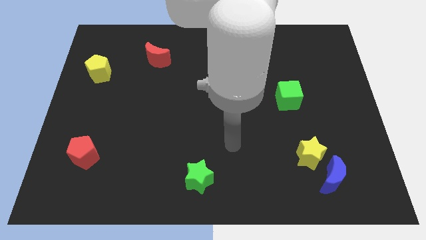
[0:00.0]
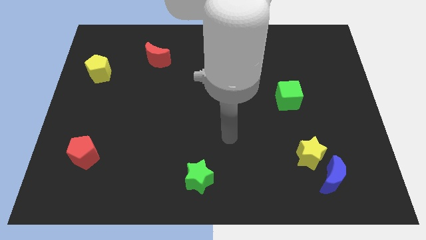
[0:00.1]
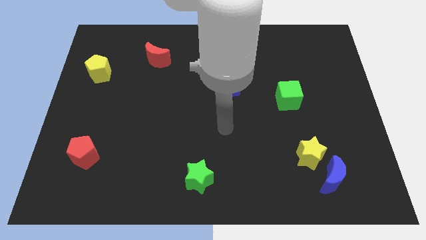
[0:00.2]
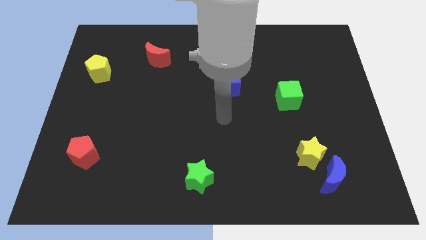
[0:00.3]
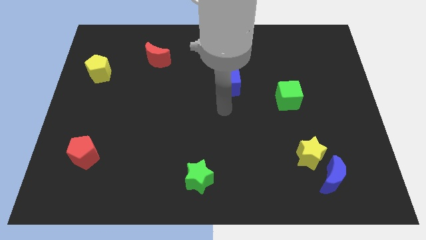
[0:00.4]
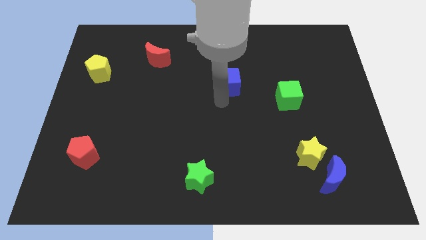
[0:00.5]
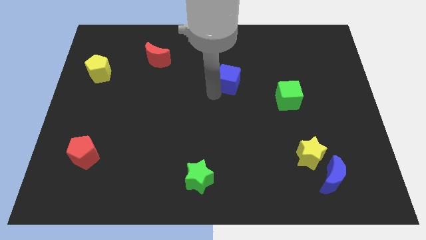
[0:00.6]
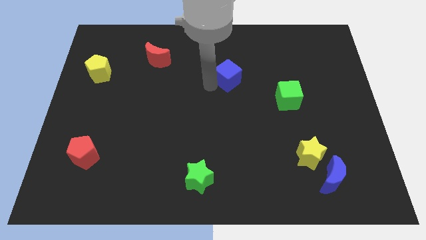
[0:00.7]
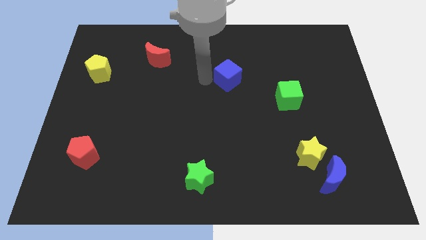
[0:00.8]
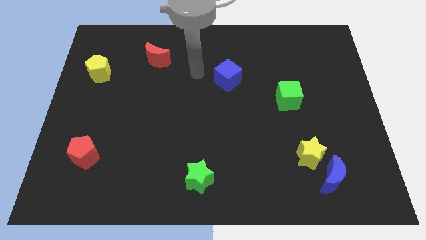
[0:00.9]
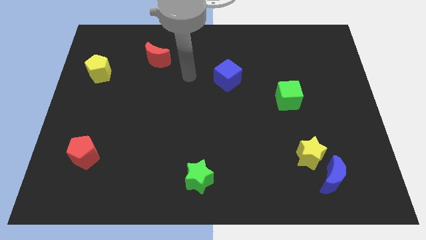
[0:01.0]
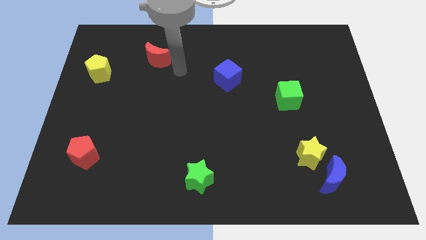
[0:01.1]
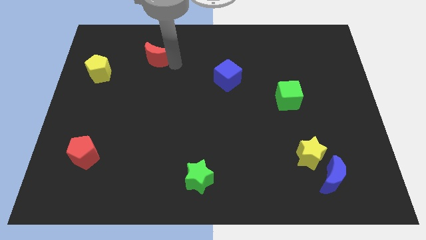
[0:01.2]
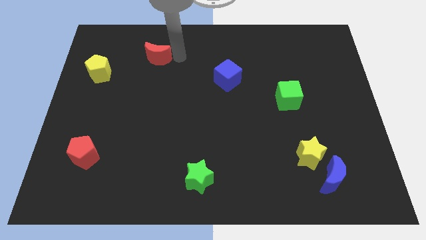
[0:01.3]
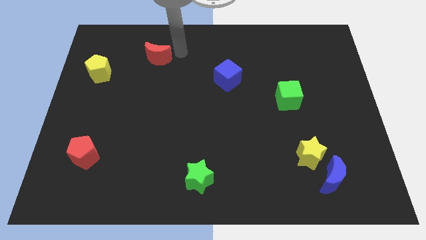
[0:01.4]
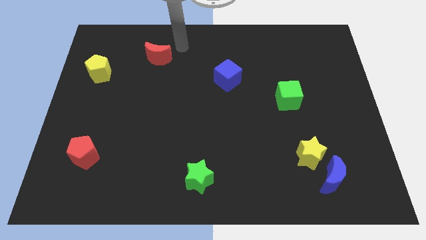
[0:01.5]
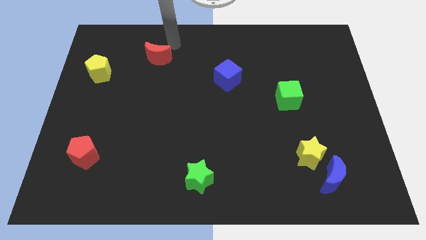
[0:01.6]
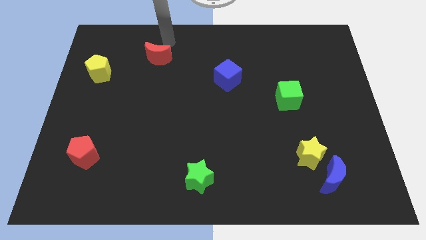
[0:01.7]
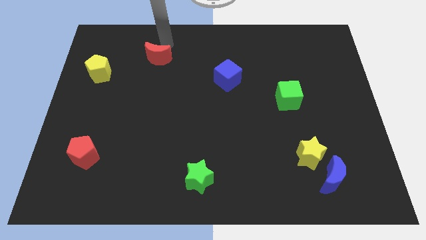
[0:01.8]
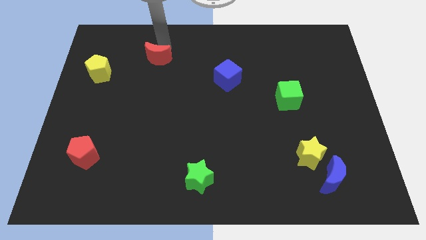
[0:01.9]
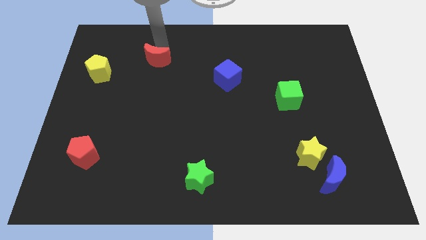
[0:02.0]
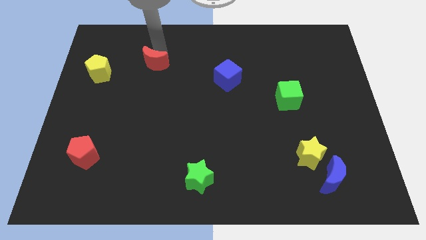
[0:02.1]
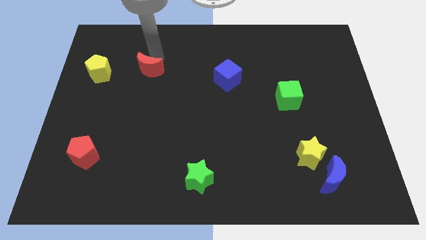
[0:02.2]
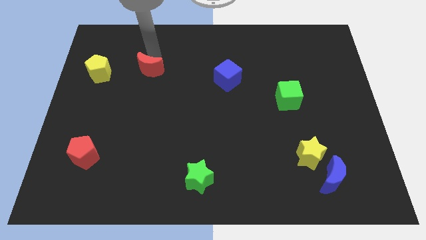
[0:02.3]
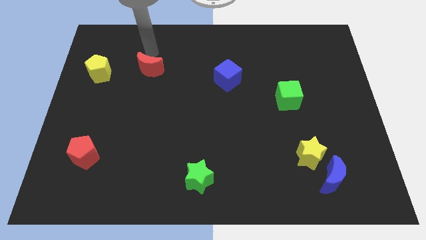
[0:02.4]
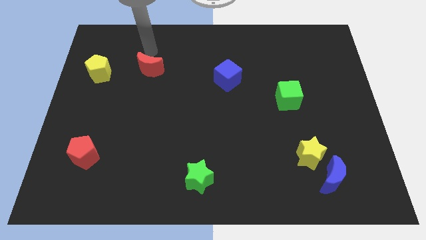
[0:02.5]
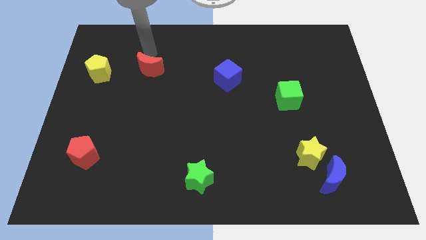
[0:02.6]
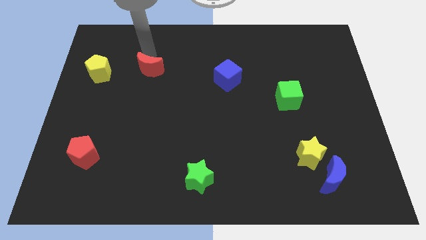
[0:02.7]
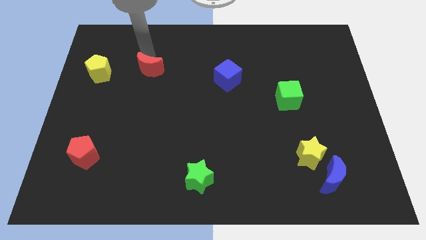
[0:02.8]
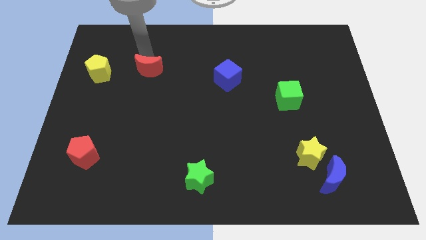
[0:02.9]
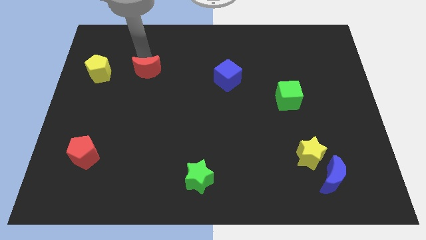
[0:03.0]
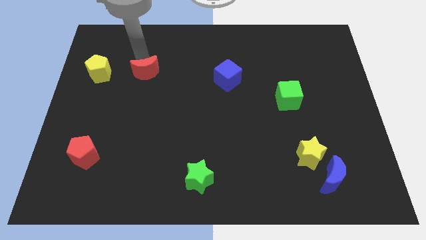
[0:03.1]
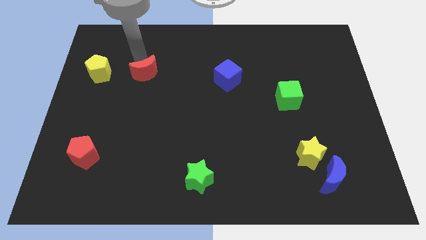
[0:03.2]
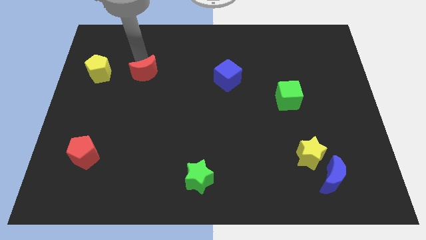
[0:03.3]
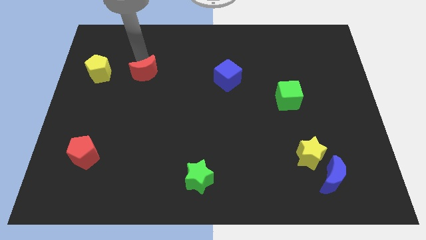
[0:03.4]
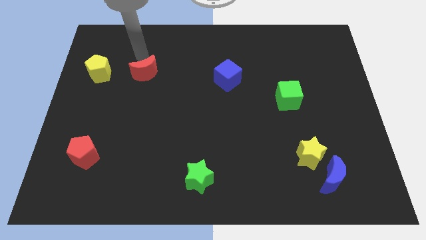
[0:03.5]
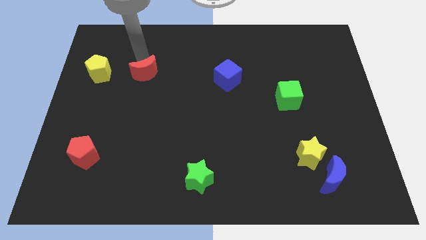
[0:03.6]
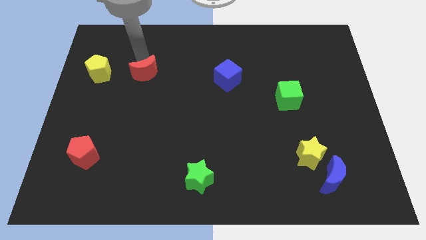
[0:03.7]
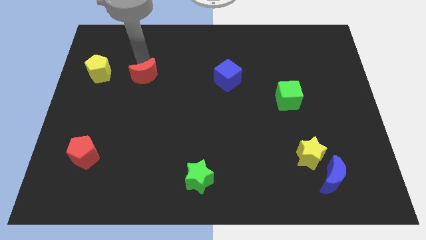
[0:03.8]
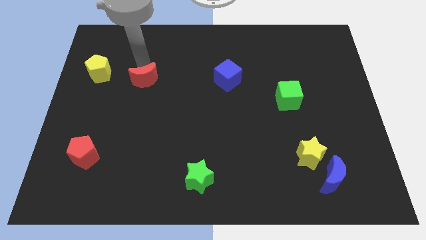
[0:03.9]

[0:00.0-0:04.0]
push the red moon down a little

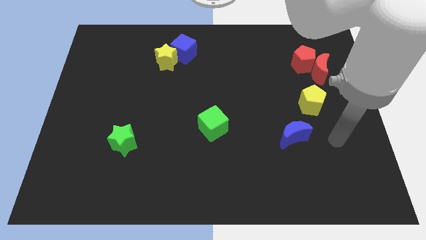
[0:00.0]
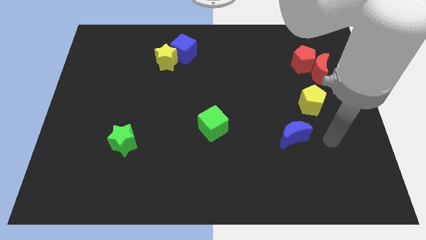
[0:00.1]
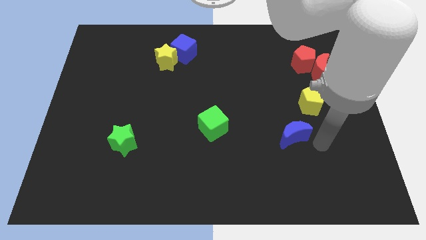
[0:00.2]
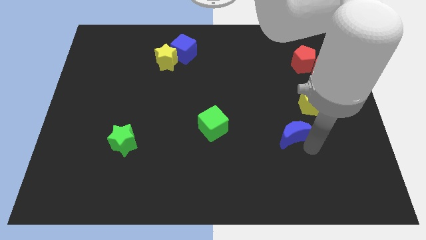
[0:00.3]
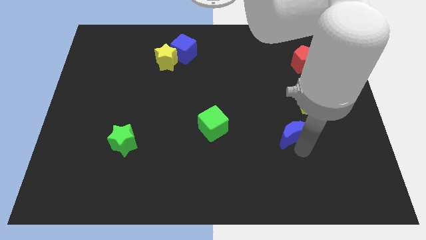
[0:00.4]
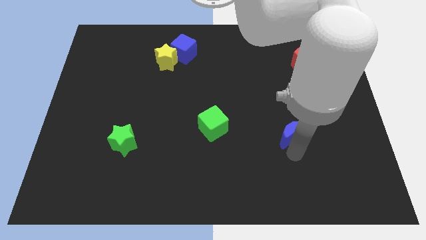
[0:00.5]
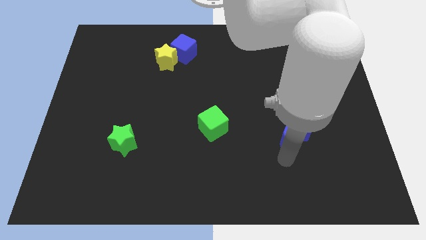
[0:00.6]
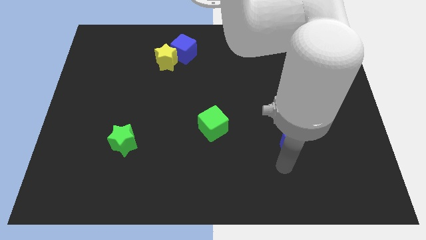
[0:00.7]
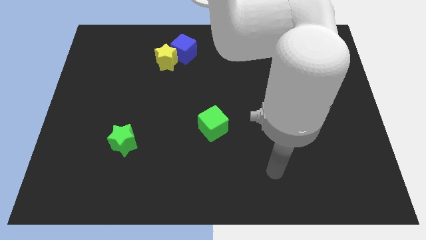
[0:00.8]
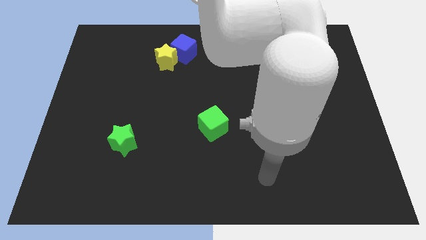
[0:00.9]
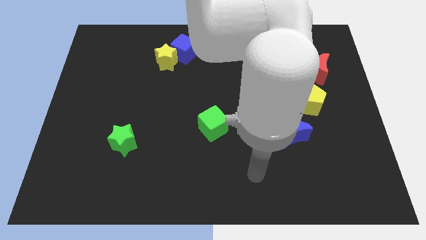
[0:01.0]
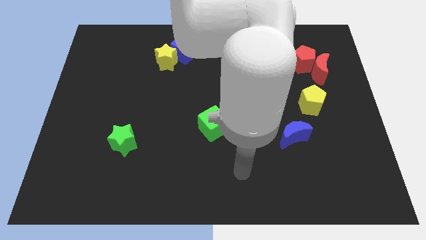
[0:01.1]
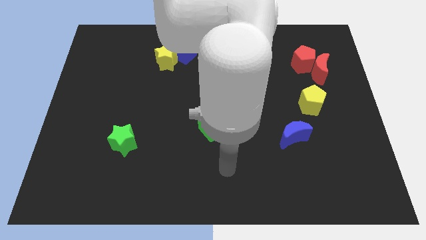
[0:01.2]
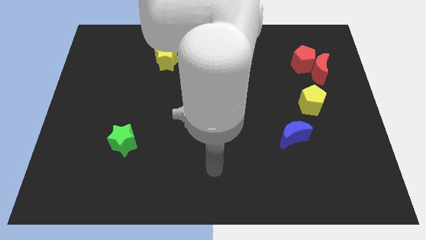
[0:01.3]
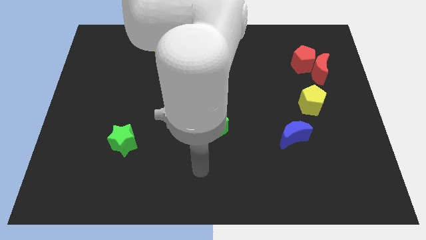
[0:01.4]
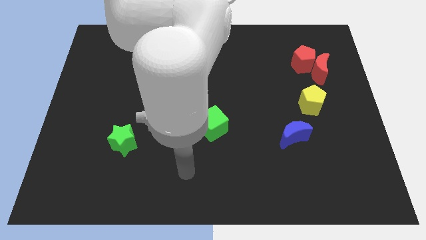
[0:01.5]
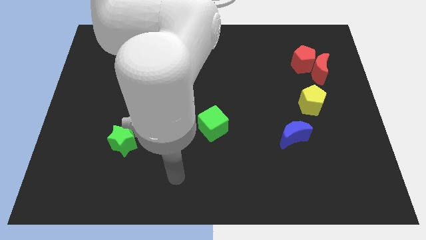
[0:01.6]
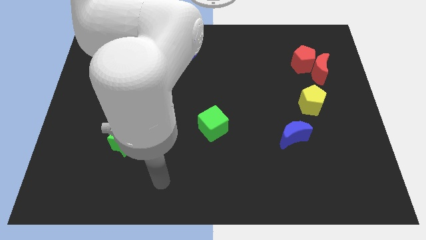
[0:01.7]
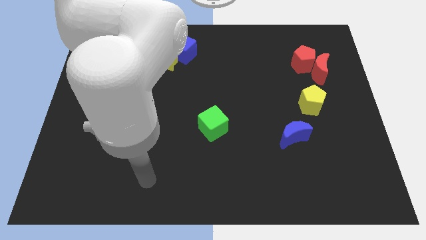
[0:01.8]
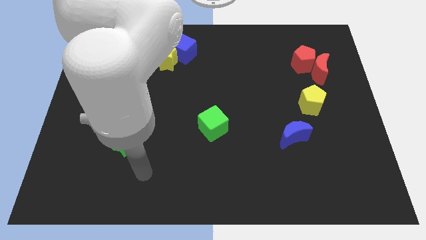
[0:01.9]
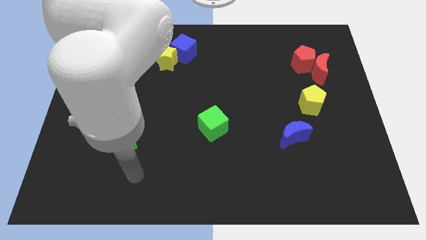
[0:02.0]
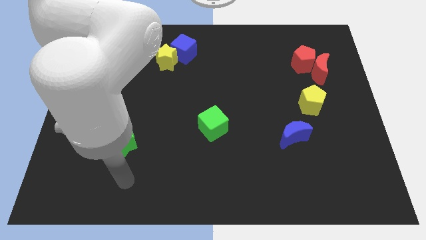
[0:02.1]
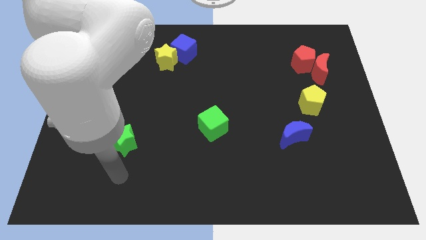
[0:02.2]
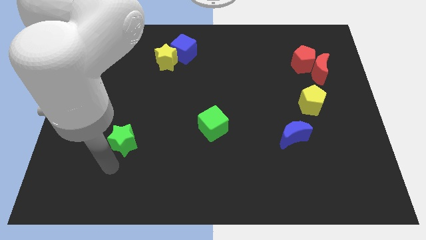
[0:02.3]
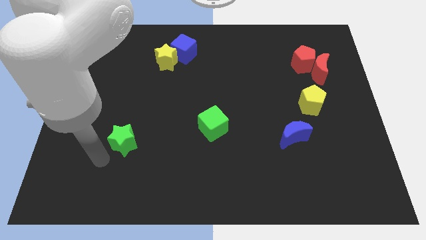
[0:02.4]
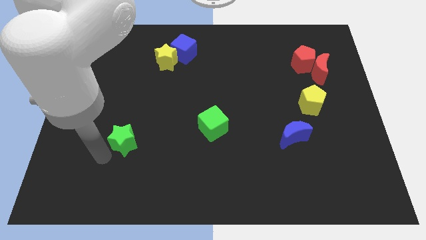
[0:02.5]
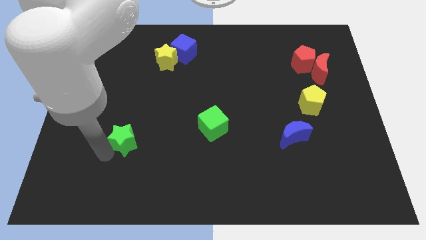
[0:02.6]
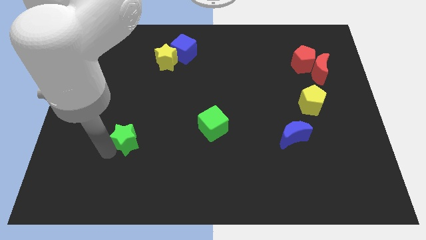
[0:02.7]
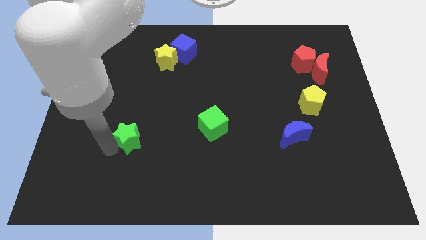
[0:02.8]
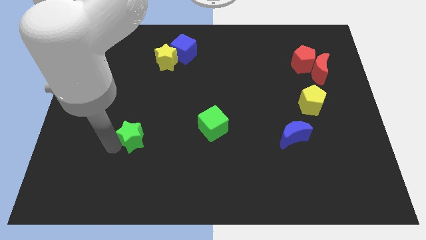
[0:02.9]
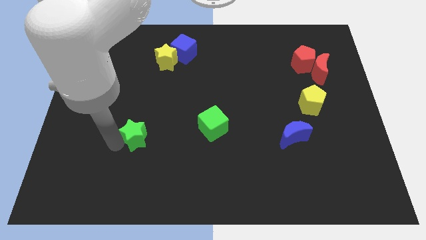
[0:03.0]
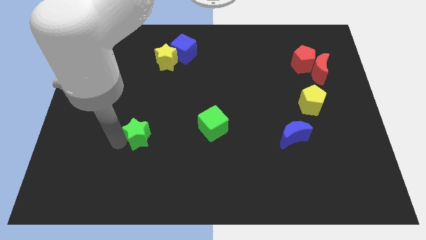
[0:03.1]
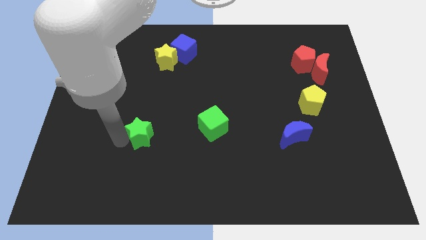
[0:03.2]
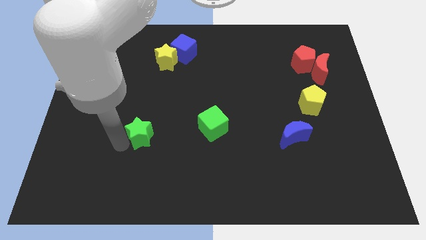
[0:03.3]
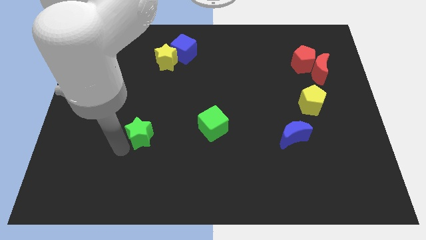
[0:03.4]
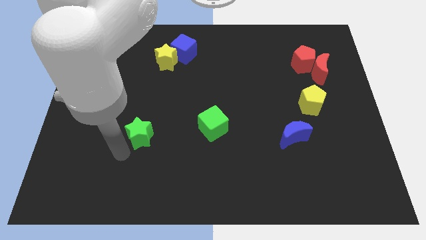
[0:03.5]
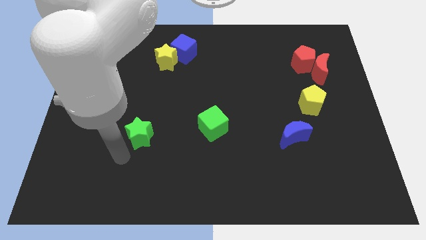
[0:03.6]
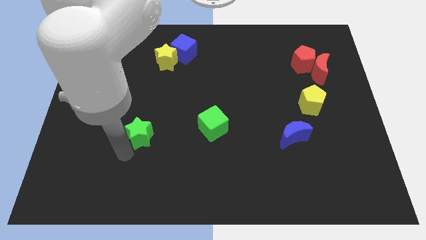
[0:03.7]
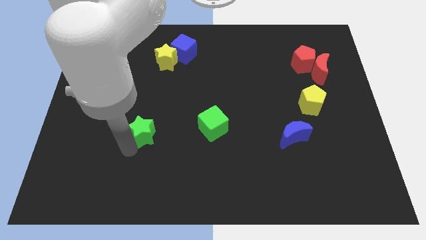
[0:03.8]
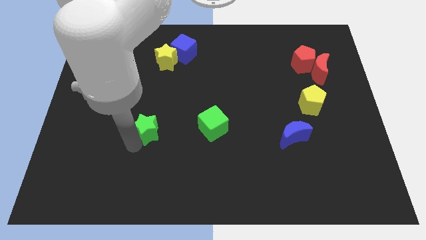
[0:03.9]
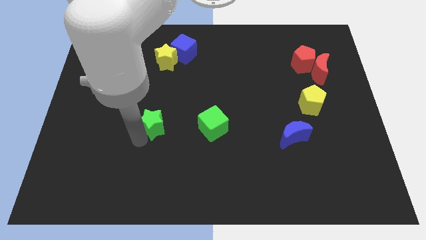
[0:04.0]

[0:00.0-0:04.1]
slide the green star slightly upwards and to the right diagonally
